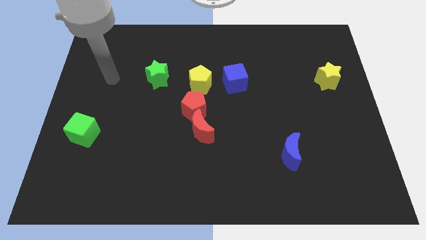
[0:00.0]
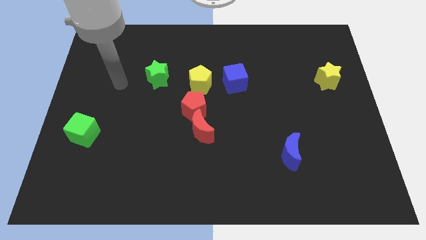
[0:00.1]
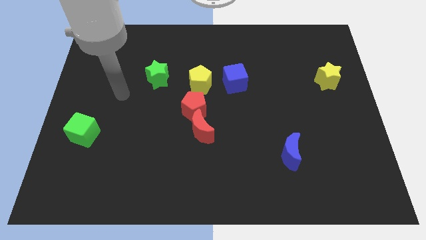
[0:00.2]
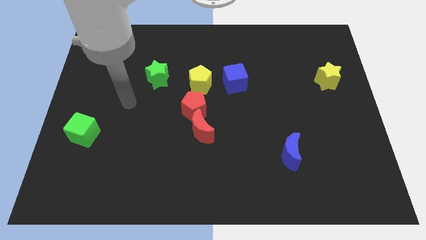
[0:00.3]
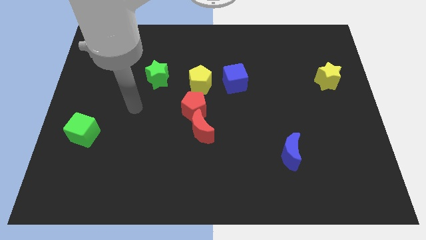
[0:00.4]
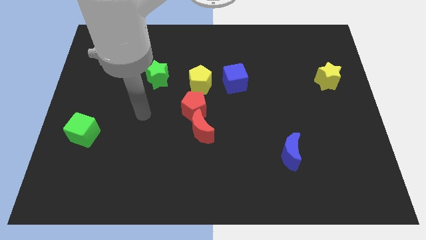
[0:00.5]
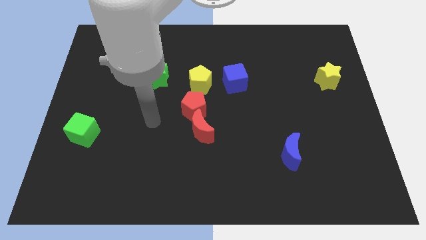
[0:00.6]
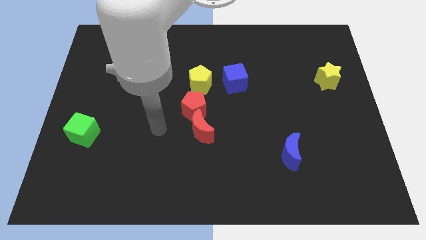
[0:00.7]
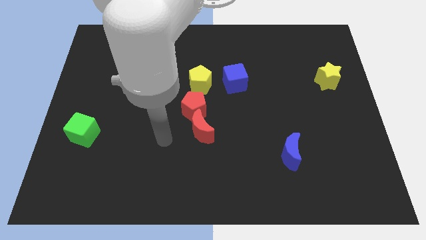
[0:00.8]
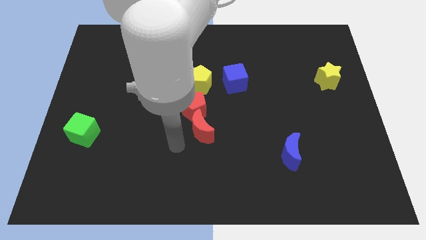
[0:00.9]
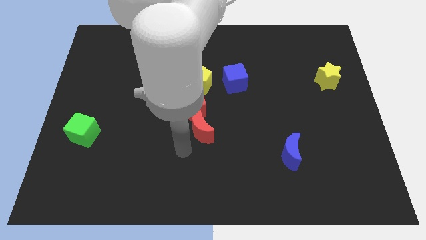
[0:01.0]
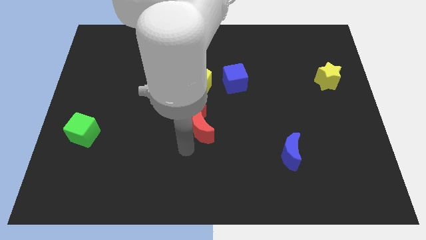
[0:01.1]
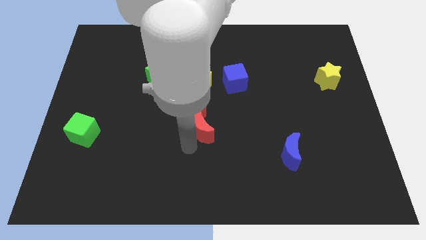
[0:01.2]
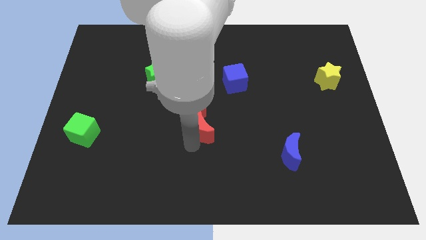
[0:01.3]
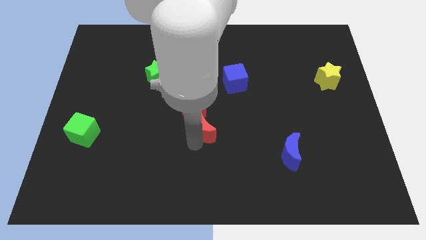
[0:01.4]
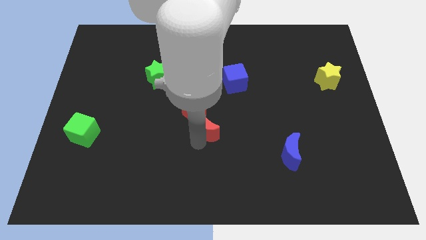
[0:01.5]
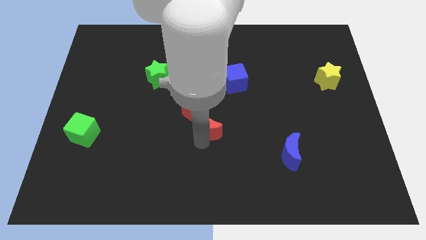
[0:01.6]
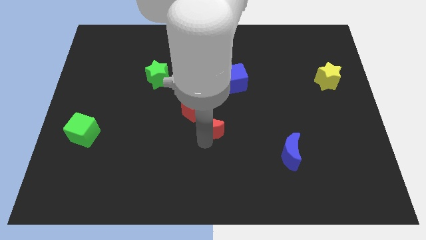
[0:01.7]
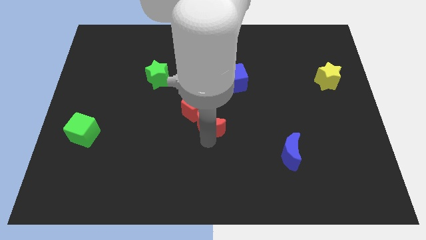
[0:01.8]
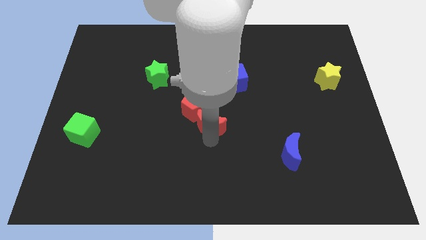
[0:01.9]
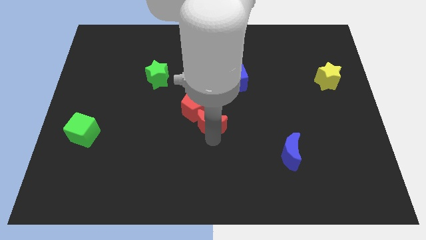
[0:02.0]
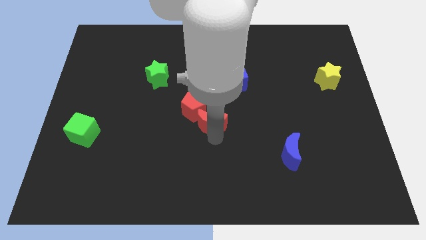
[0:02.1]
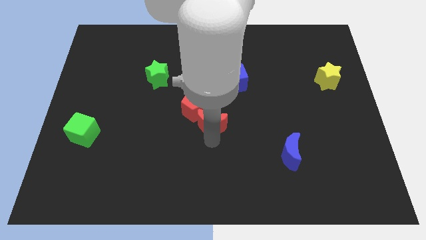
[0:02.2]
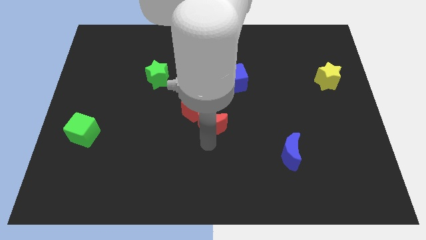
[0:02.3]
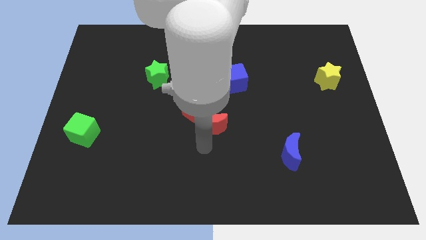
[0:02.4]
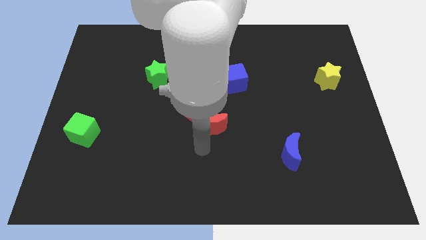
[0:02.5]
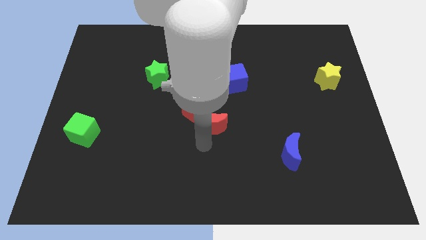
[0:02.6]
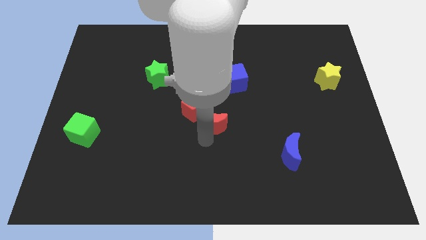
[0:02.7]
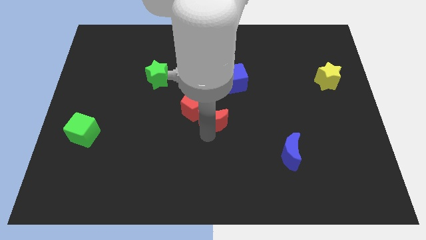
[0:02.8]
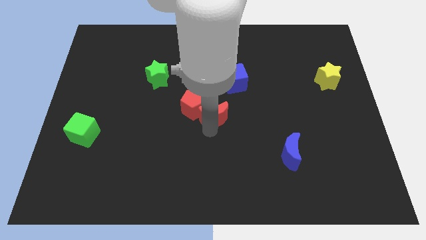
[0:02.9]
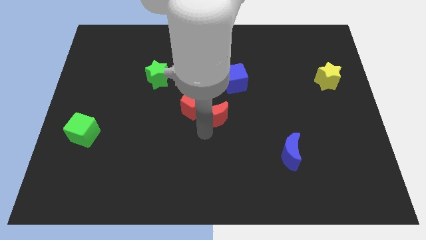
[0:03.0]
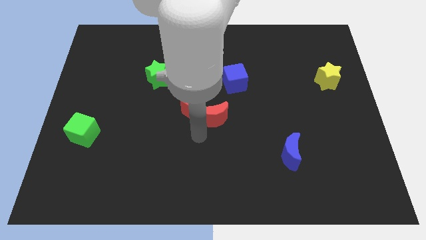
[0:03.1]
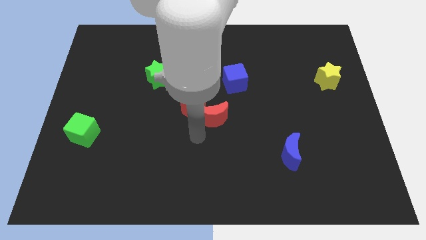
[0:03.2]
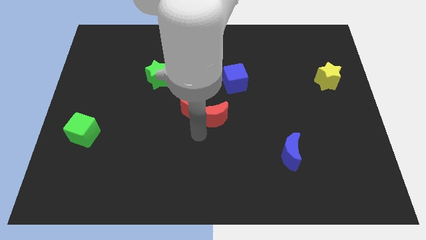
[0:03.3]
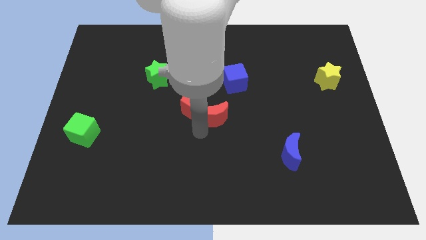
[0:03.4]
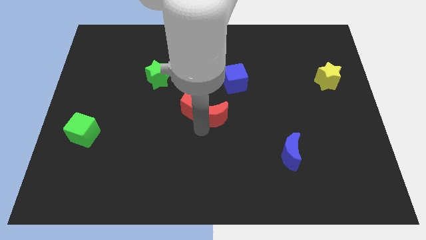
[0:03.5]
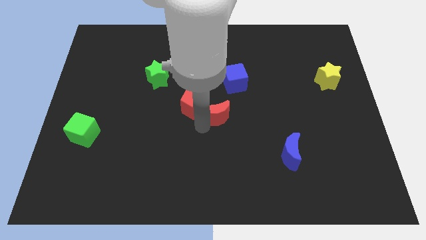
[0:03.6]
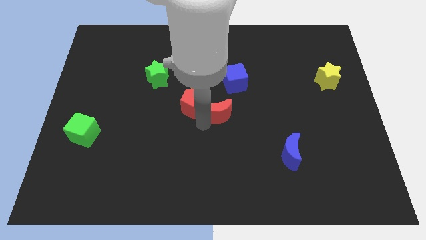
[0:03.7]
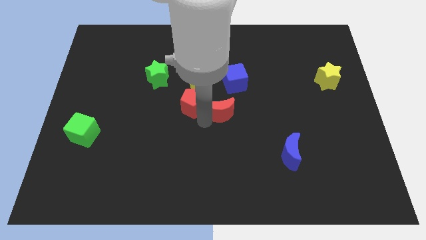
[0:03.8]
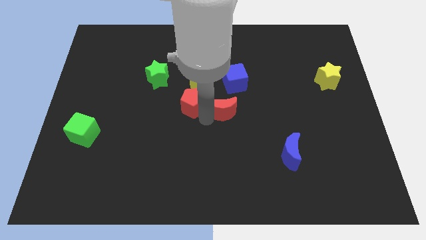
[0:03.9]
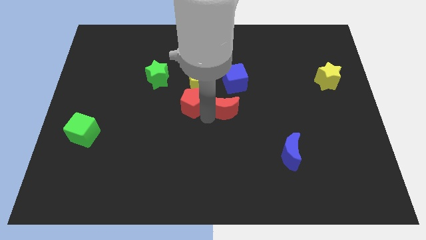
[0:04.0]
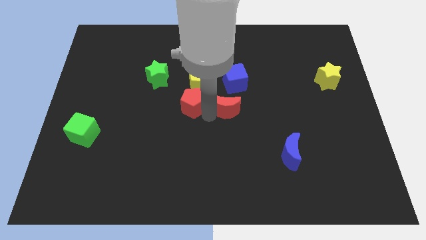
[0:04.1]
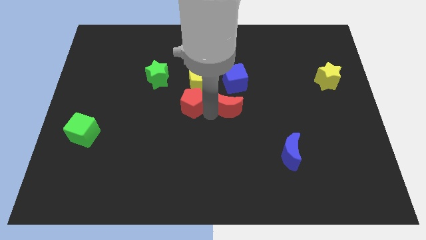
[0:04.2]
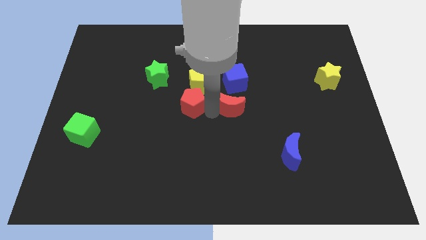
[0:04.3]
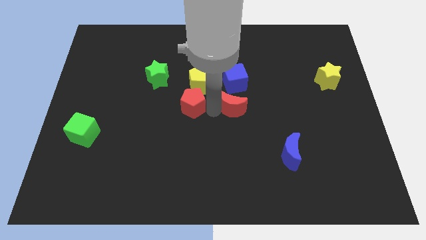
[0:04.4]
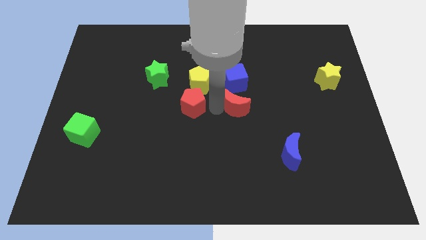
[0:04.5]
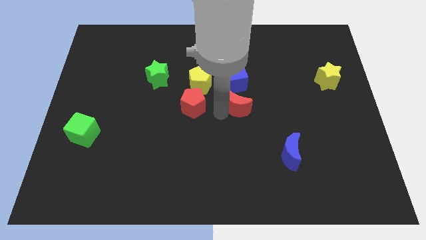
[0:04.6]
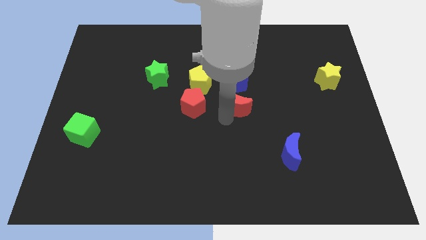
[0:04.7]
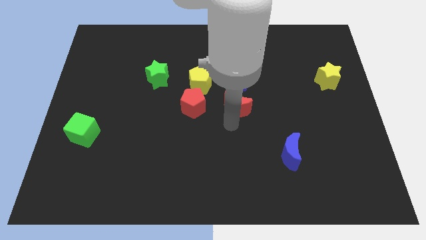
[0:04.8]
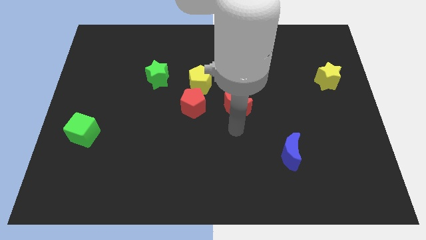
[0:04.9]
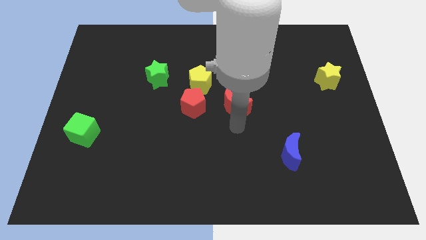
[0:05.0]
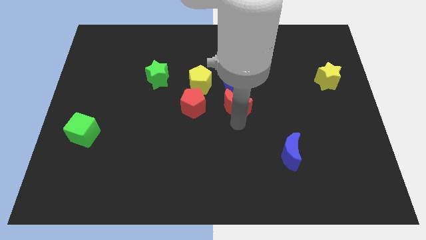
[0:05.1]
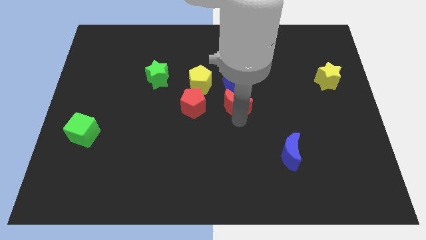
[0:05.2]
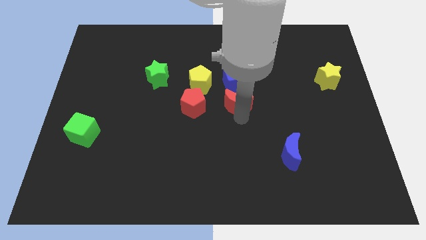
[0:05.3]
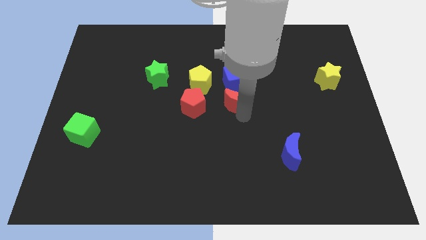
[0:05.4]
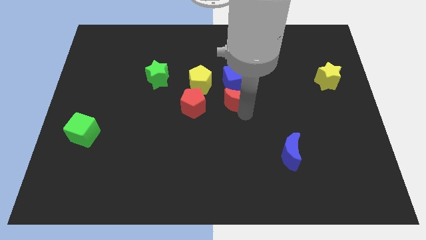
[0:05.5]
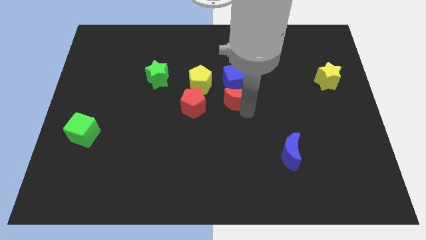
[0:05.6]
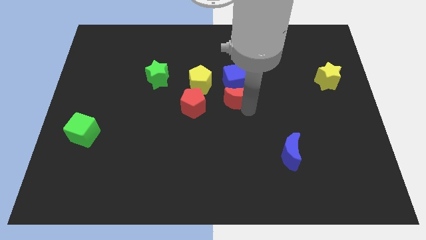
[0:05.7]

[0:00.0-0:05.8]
slide the red moon towards the blue cube

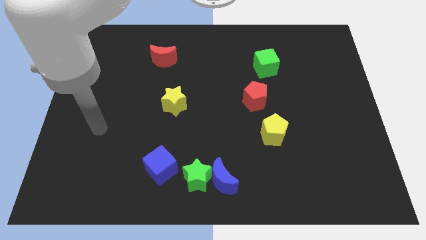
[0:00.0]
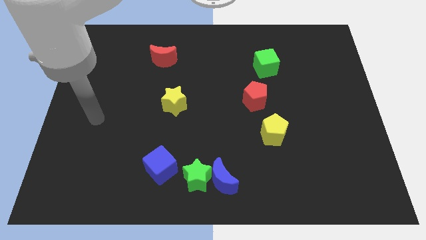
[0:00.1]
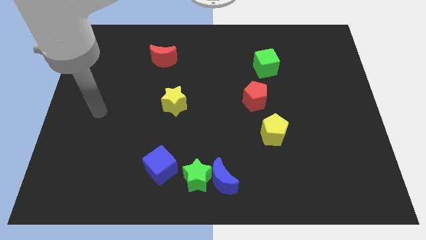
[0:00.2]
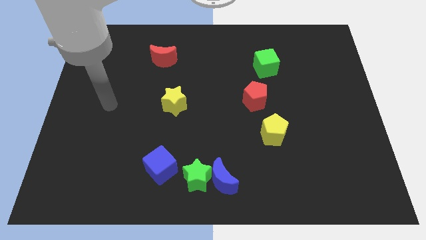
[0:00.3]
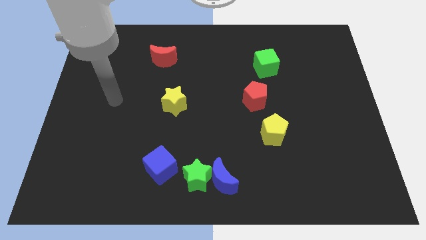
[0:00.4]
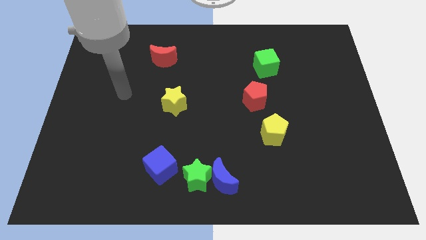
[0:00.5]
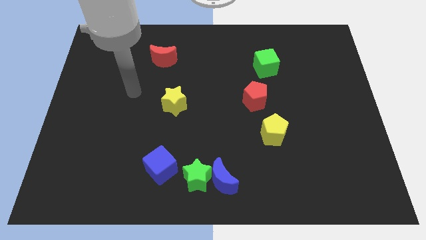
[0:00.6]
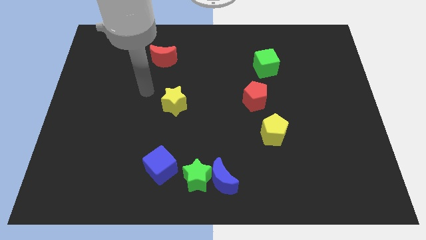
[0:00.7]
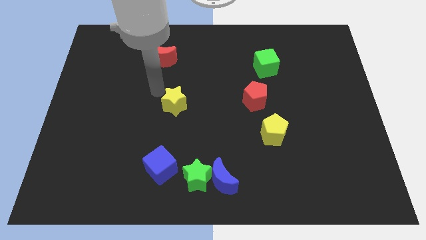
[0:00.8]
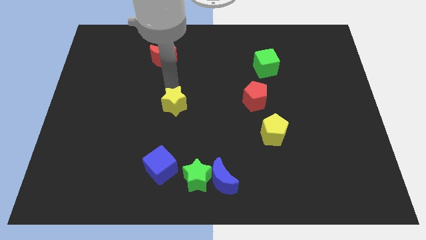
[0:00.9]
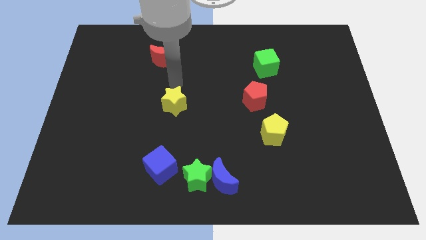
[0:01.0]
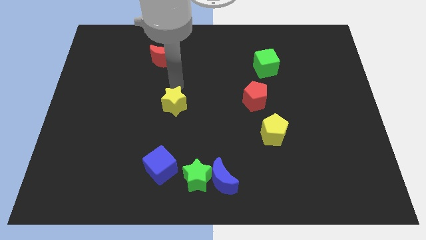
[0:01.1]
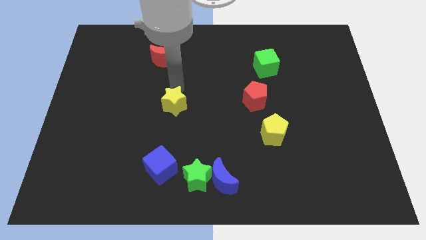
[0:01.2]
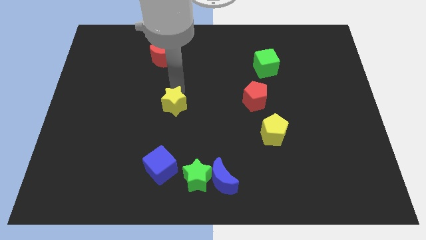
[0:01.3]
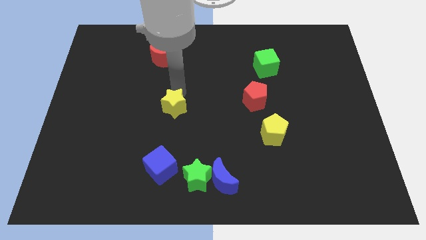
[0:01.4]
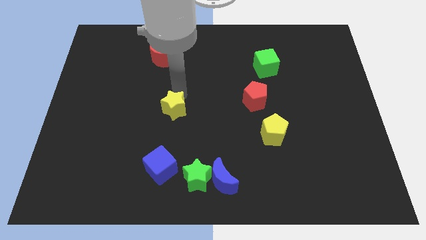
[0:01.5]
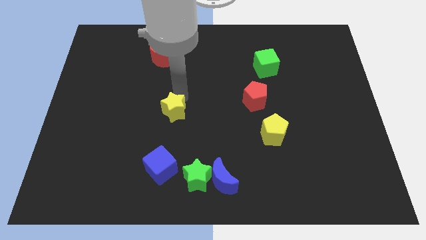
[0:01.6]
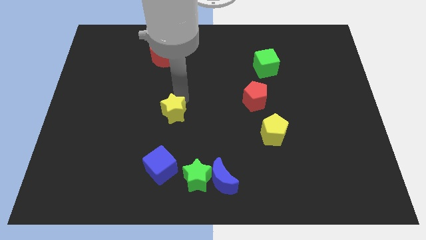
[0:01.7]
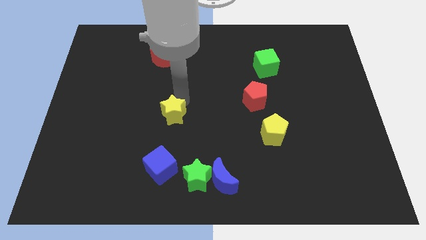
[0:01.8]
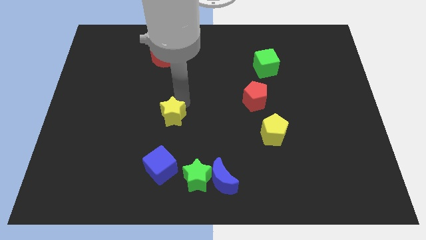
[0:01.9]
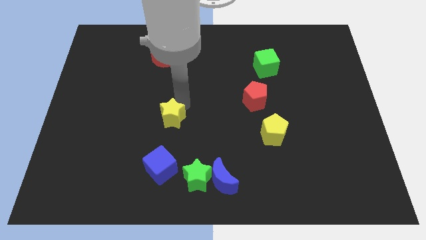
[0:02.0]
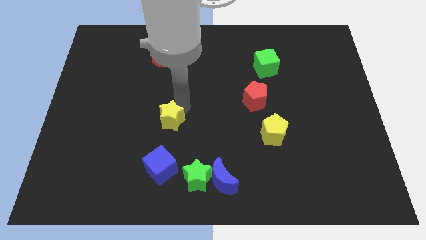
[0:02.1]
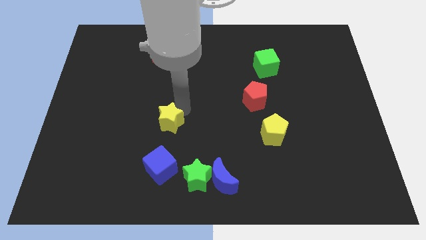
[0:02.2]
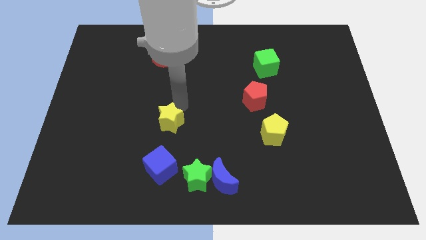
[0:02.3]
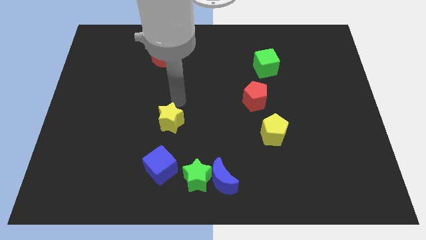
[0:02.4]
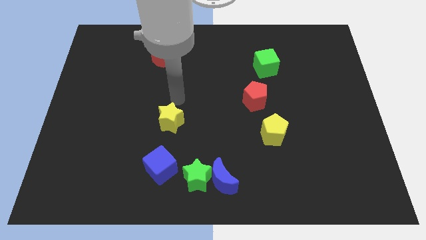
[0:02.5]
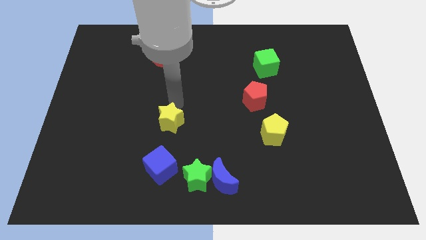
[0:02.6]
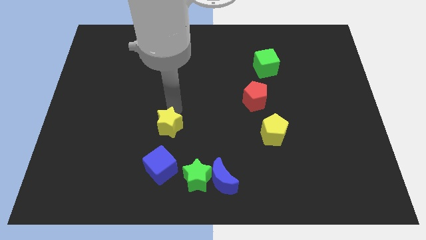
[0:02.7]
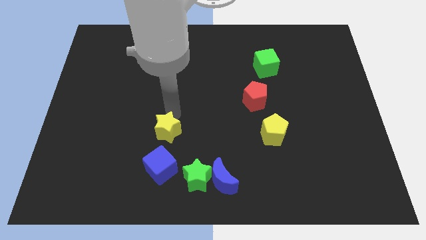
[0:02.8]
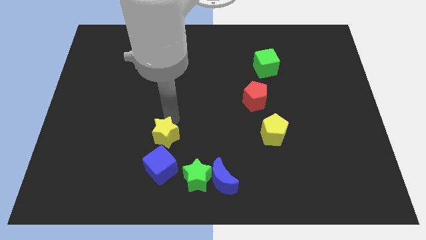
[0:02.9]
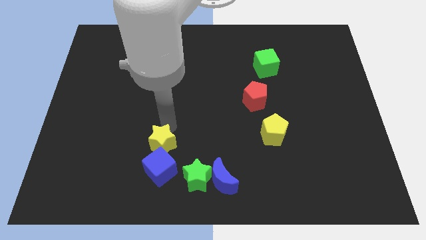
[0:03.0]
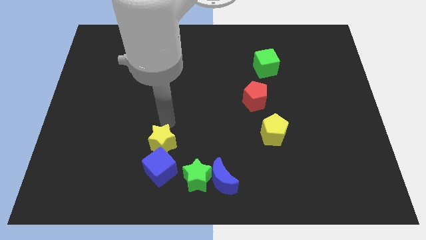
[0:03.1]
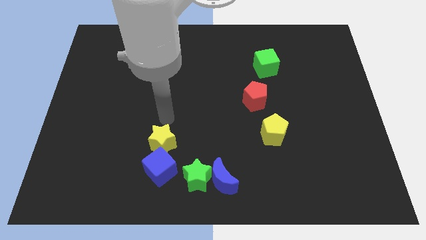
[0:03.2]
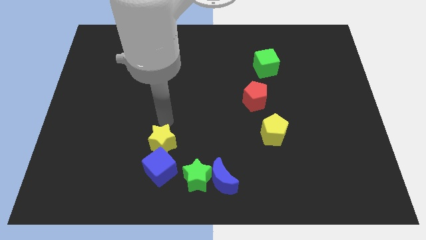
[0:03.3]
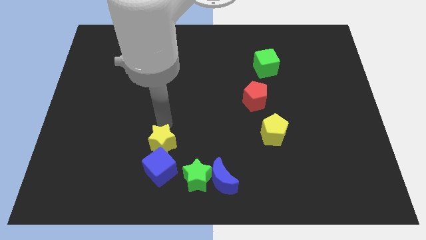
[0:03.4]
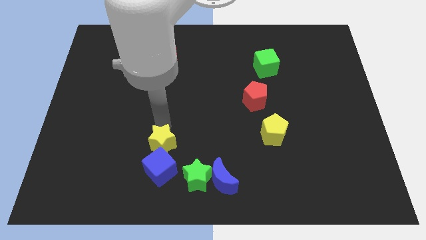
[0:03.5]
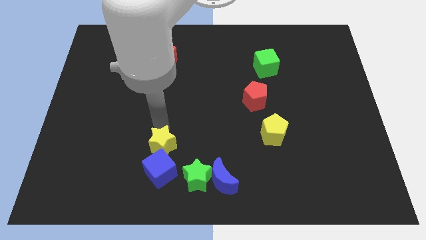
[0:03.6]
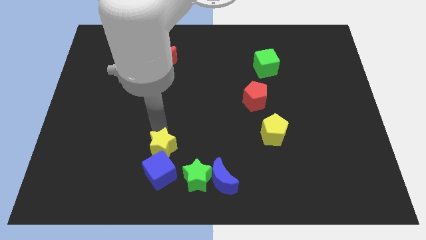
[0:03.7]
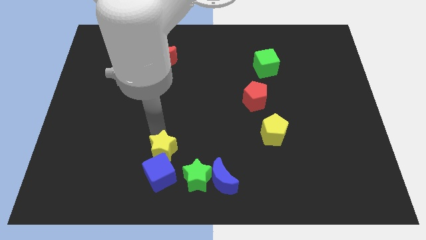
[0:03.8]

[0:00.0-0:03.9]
put the yellow star next to the blue cube
